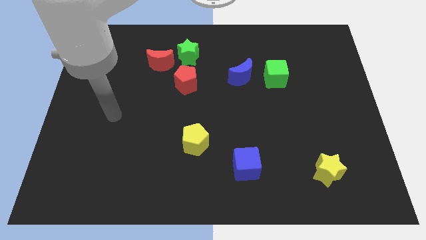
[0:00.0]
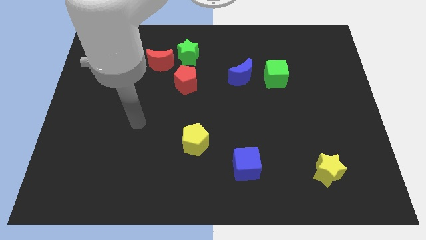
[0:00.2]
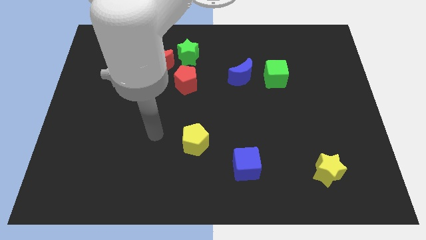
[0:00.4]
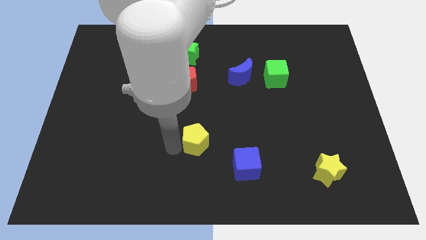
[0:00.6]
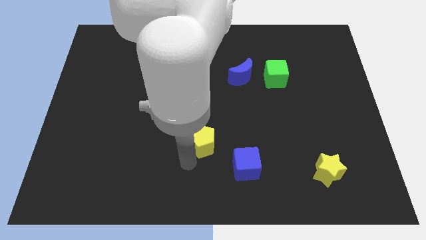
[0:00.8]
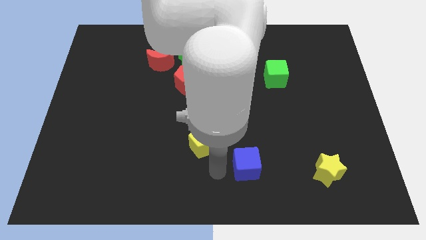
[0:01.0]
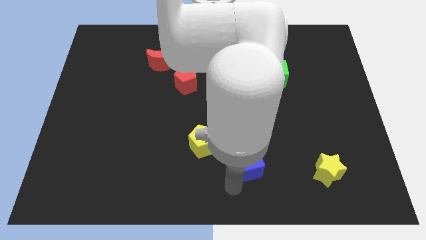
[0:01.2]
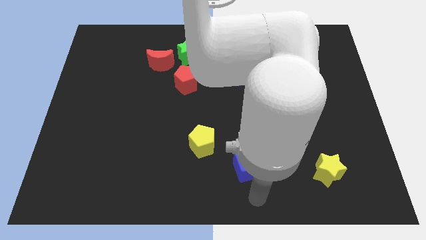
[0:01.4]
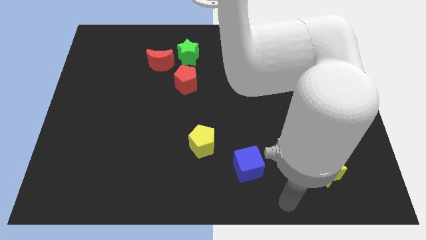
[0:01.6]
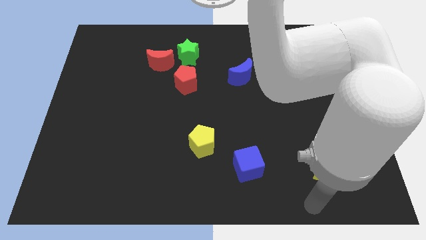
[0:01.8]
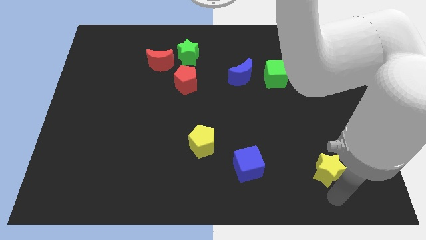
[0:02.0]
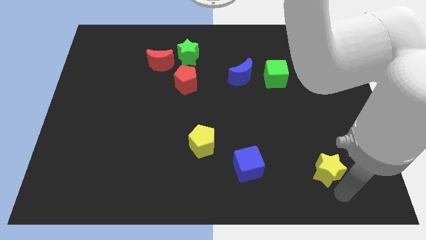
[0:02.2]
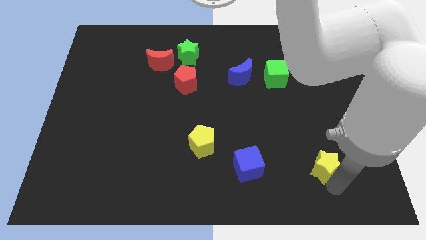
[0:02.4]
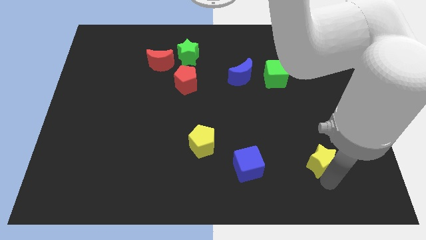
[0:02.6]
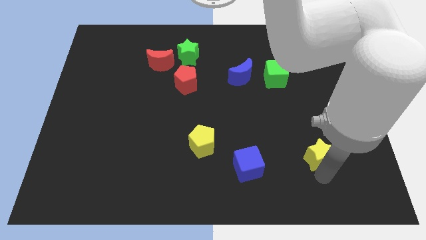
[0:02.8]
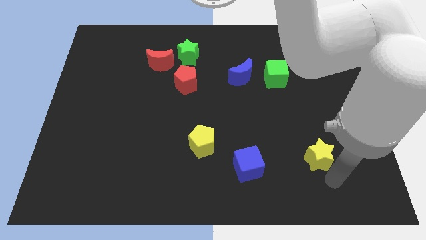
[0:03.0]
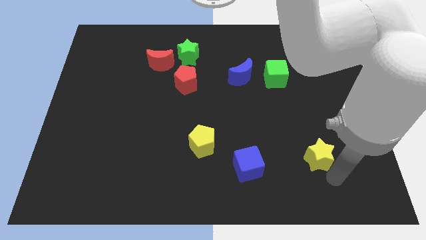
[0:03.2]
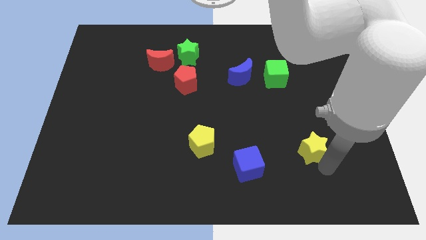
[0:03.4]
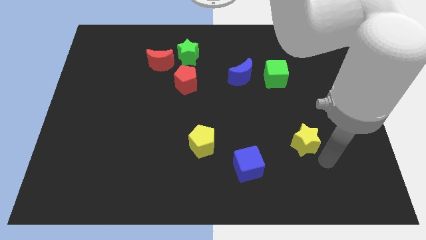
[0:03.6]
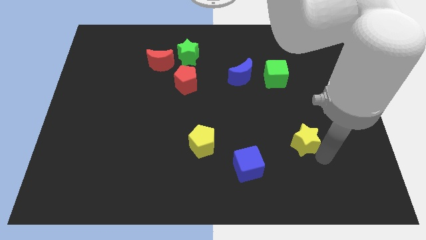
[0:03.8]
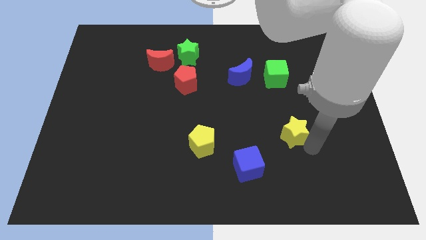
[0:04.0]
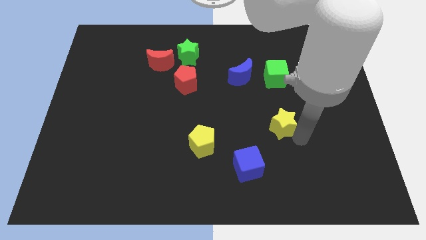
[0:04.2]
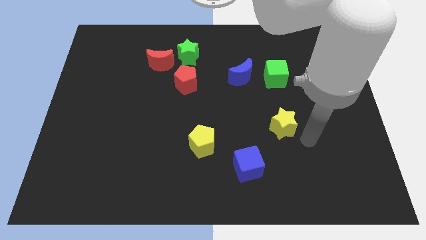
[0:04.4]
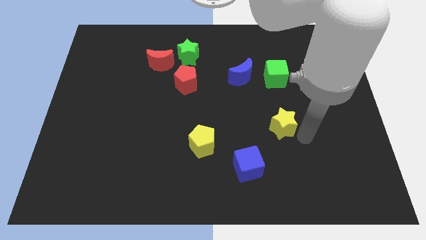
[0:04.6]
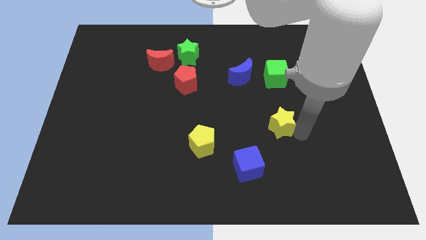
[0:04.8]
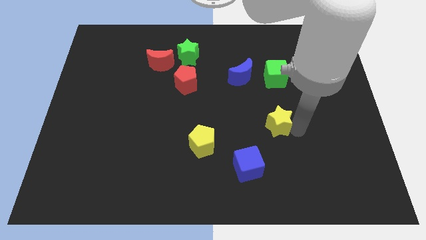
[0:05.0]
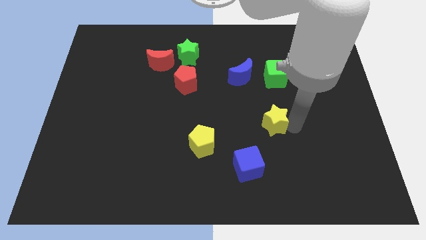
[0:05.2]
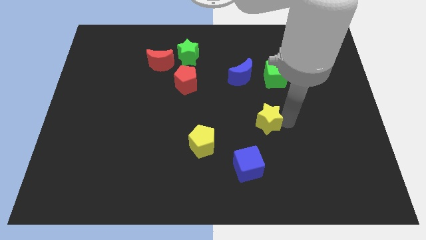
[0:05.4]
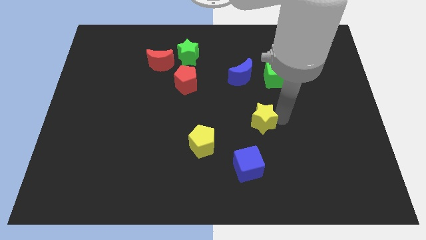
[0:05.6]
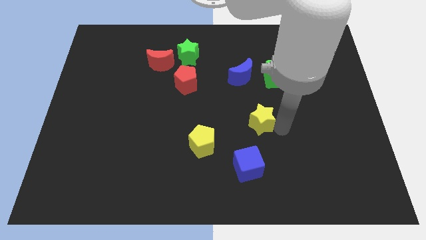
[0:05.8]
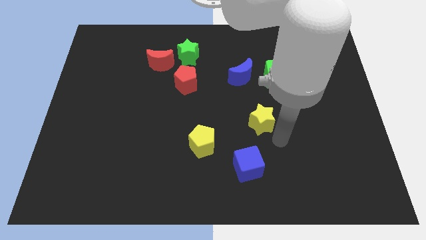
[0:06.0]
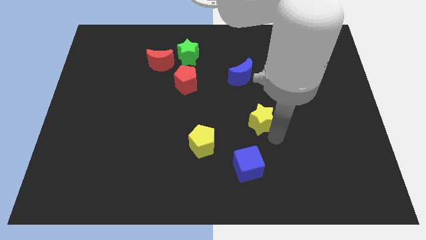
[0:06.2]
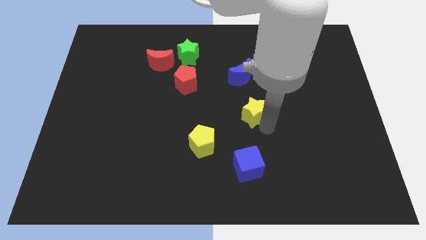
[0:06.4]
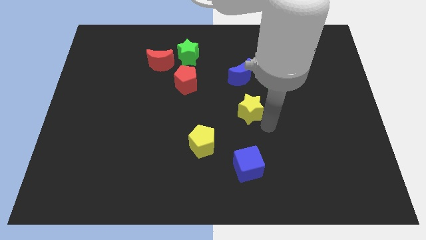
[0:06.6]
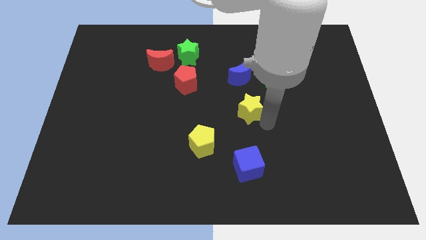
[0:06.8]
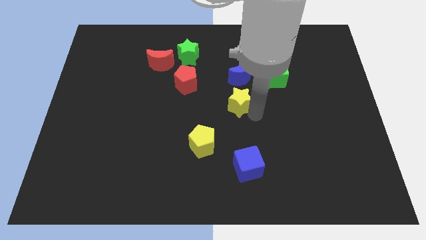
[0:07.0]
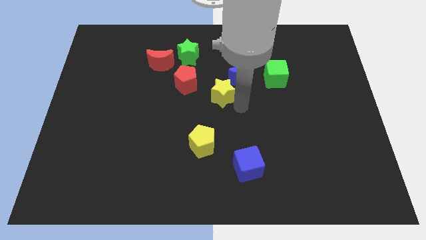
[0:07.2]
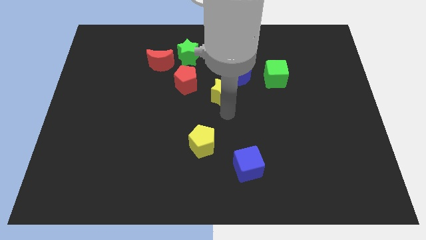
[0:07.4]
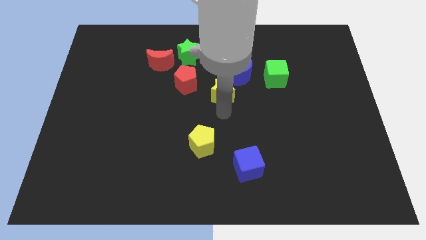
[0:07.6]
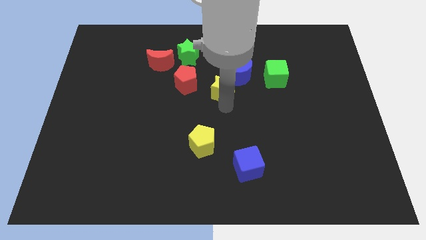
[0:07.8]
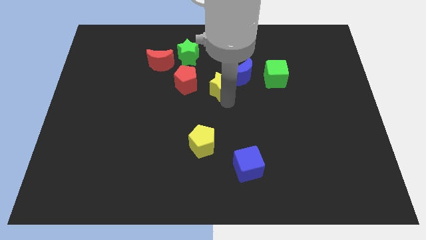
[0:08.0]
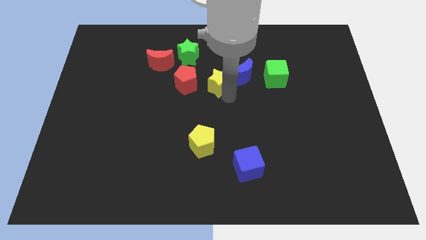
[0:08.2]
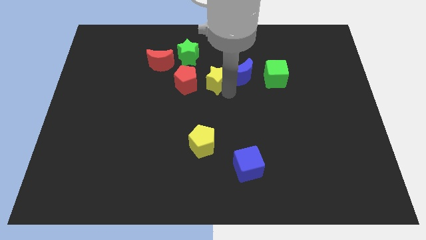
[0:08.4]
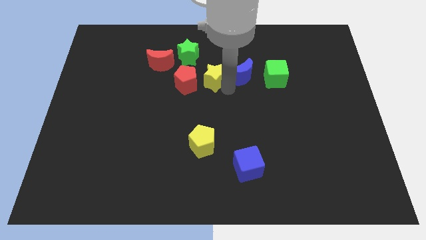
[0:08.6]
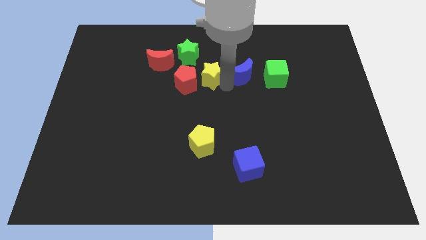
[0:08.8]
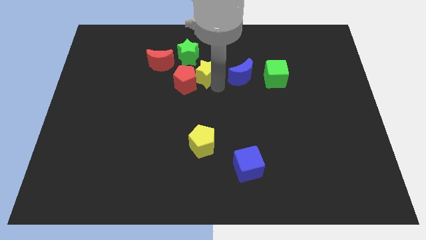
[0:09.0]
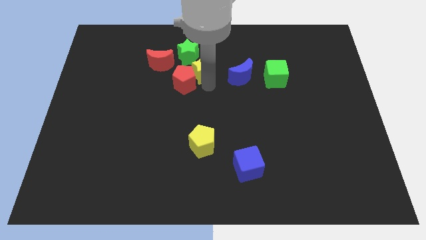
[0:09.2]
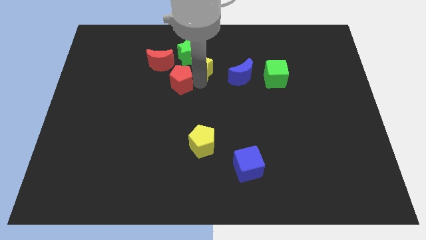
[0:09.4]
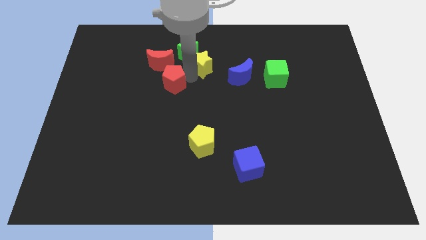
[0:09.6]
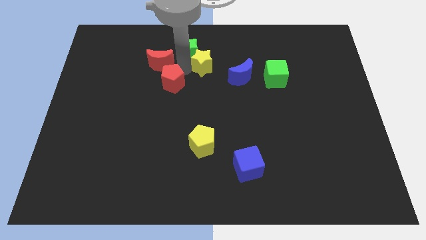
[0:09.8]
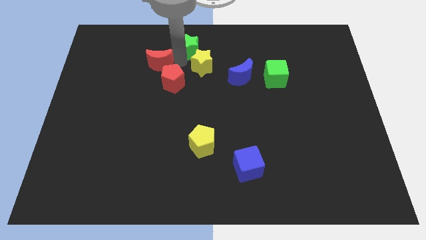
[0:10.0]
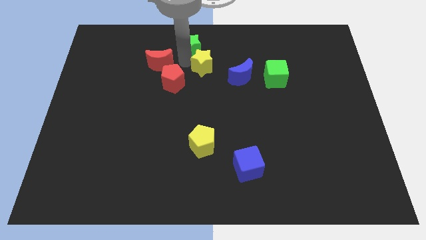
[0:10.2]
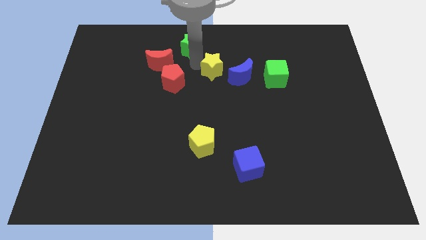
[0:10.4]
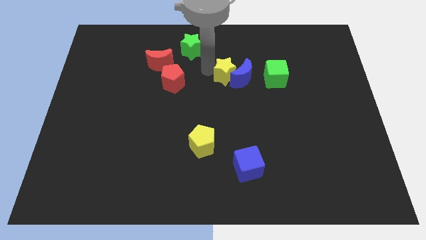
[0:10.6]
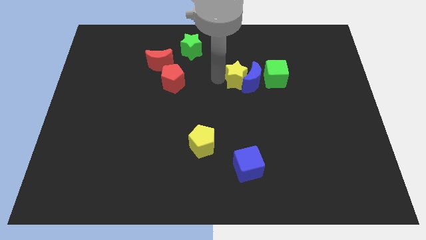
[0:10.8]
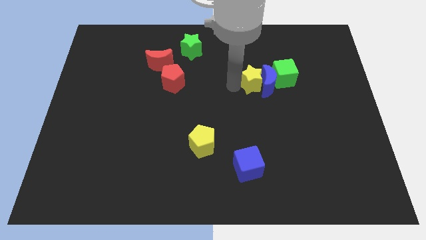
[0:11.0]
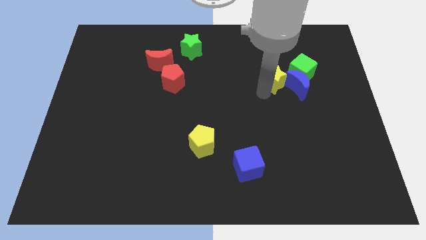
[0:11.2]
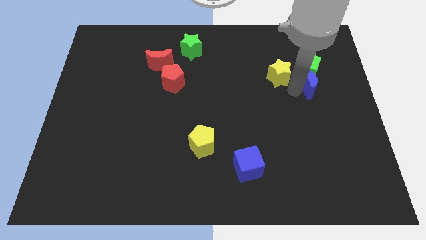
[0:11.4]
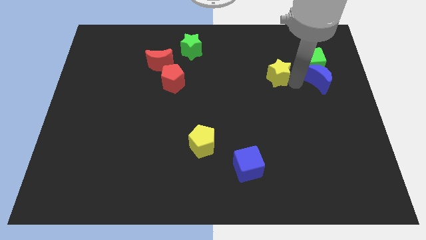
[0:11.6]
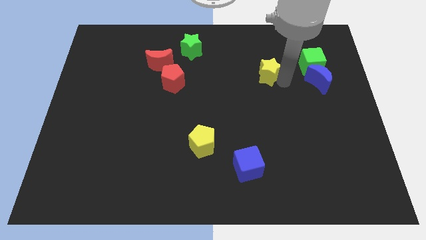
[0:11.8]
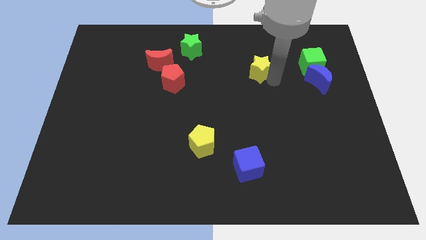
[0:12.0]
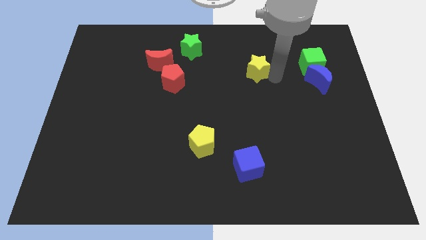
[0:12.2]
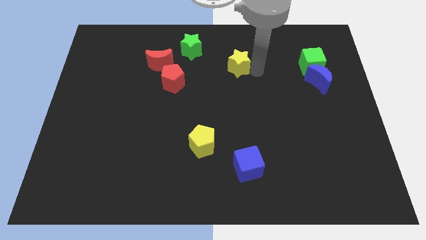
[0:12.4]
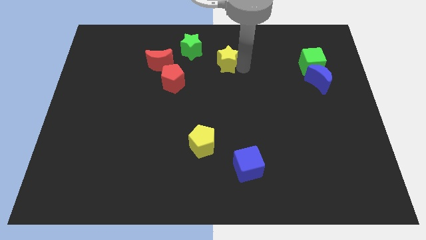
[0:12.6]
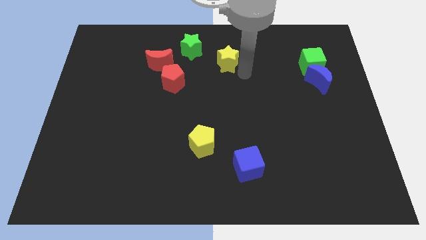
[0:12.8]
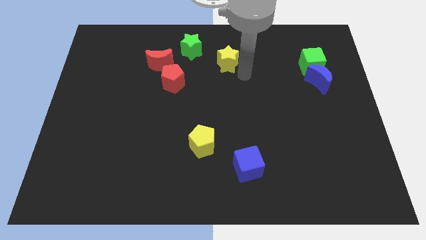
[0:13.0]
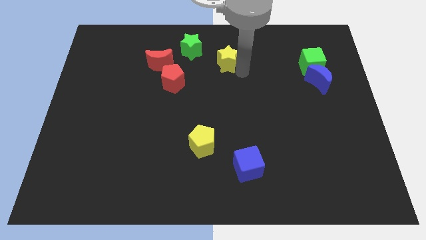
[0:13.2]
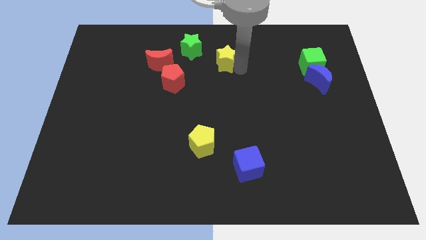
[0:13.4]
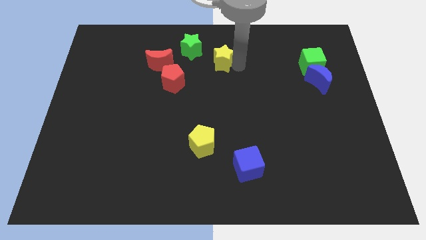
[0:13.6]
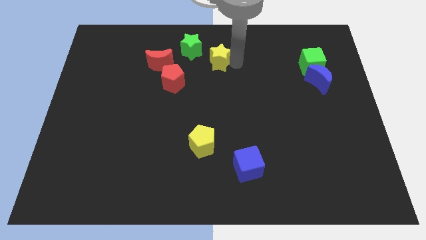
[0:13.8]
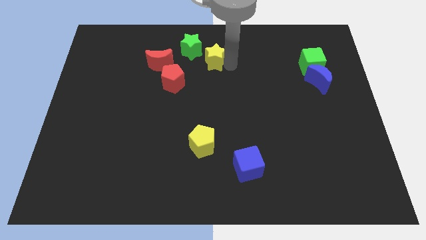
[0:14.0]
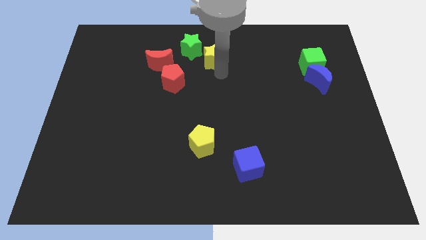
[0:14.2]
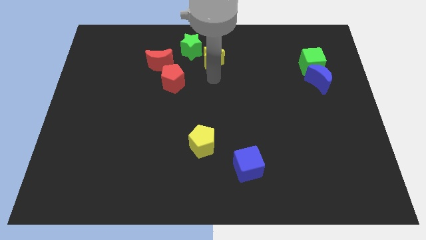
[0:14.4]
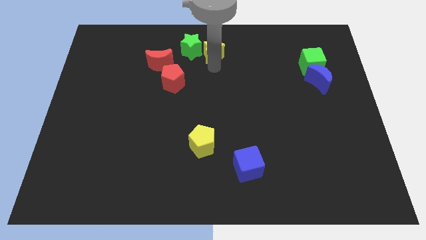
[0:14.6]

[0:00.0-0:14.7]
slide the yellow star to the towards your base
